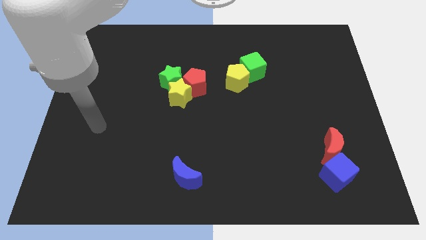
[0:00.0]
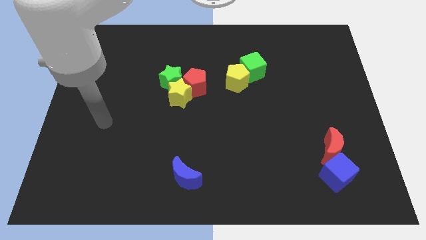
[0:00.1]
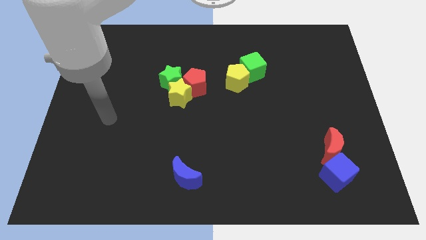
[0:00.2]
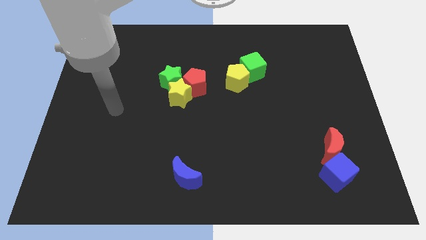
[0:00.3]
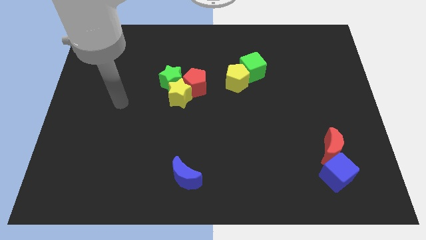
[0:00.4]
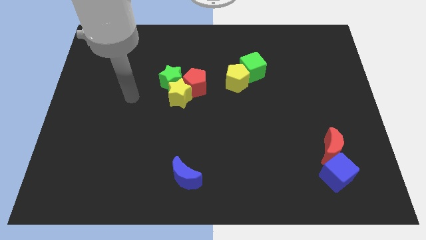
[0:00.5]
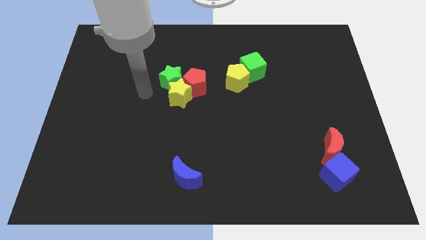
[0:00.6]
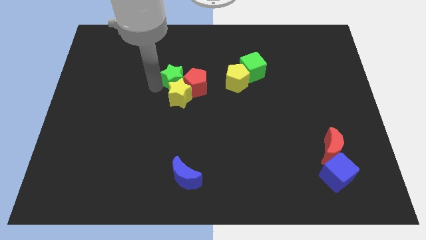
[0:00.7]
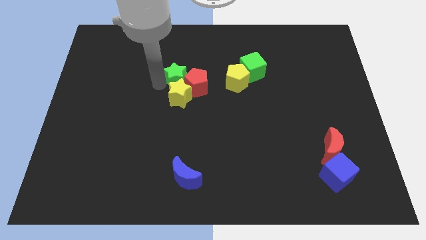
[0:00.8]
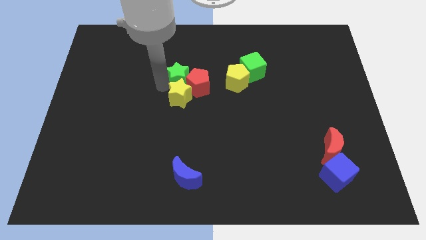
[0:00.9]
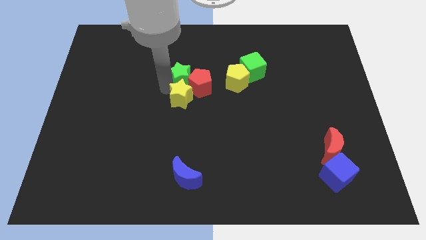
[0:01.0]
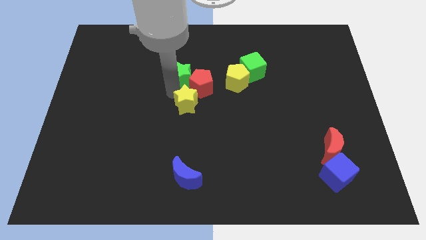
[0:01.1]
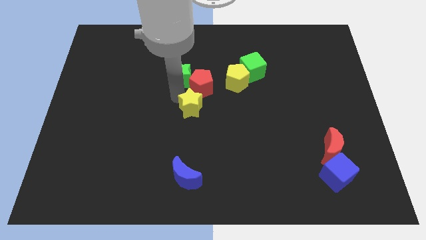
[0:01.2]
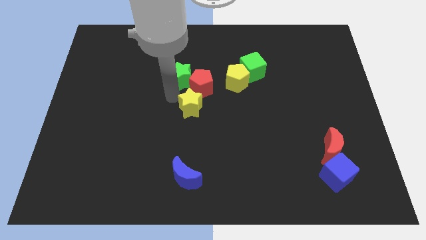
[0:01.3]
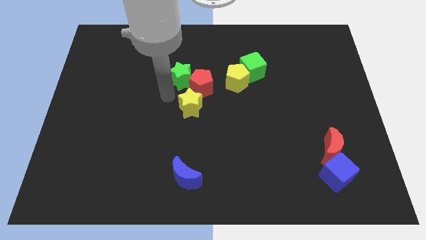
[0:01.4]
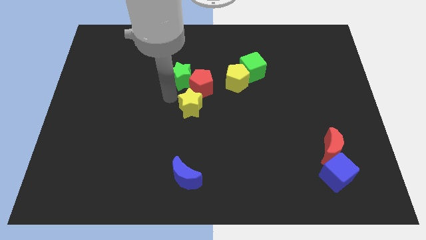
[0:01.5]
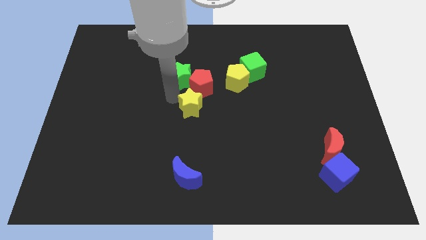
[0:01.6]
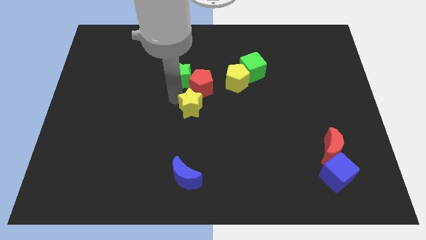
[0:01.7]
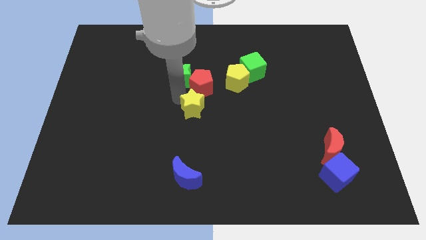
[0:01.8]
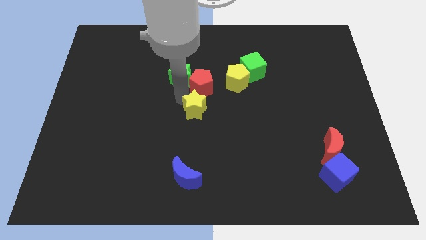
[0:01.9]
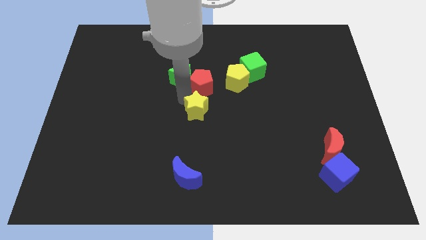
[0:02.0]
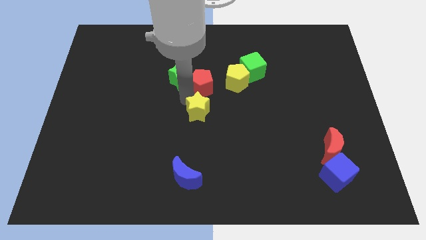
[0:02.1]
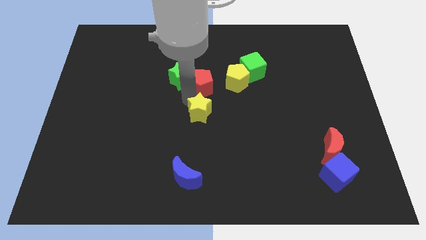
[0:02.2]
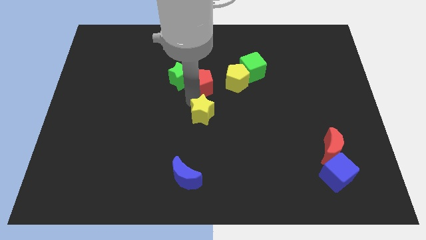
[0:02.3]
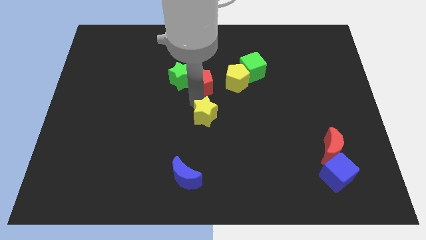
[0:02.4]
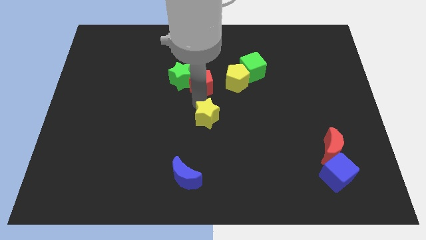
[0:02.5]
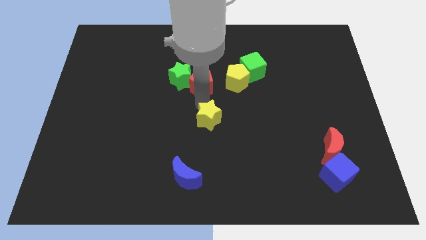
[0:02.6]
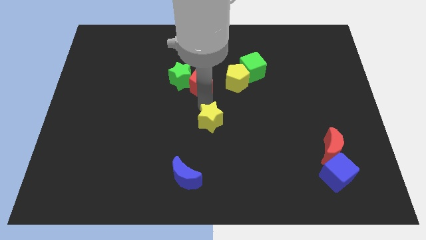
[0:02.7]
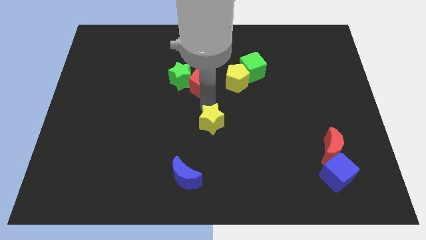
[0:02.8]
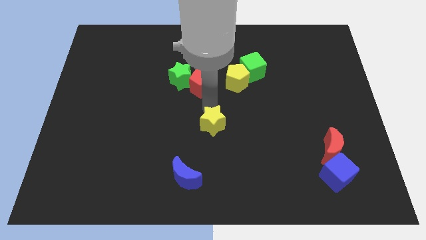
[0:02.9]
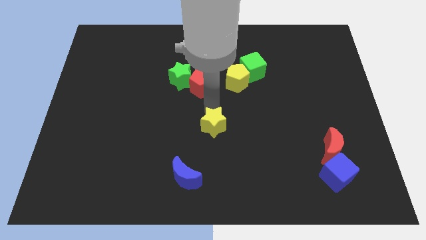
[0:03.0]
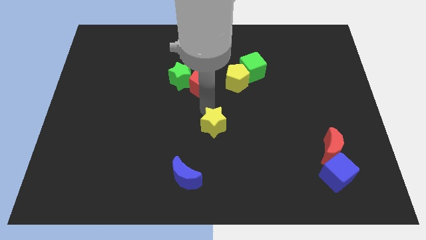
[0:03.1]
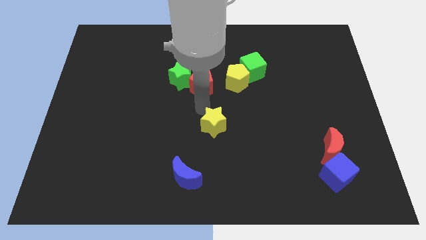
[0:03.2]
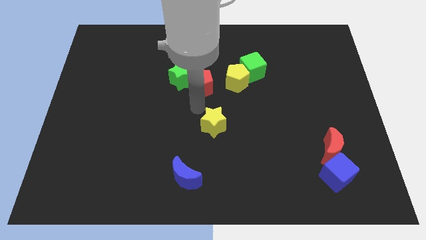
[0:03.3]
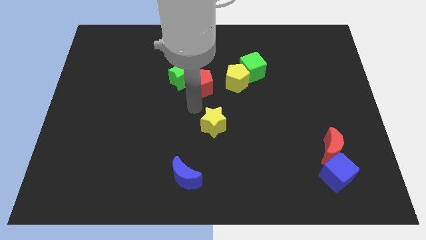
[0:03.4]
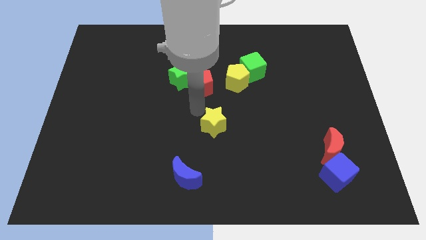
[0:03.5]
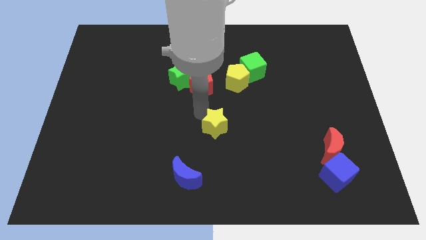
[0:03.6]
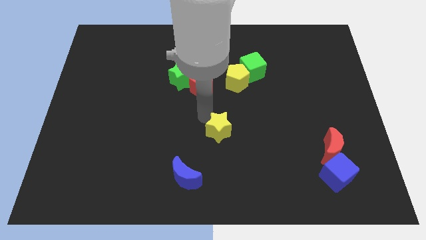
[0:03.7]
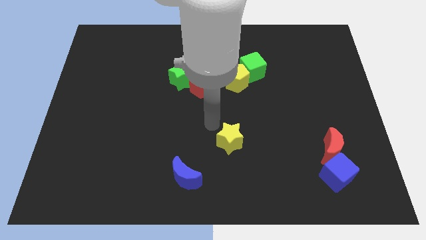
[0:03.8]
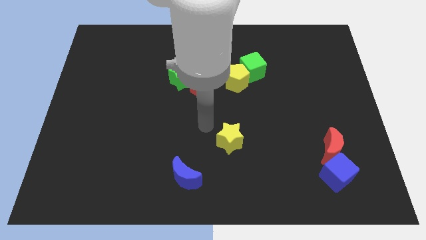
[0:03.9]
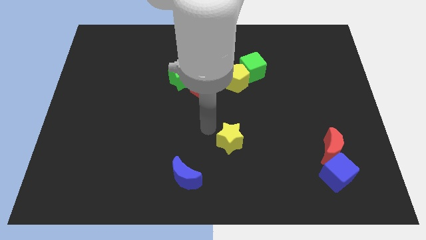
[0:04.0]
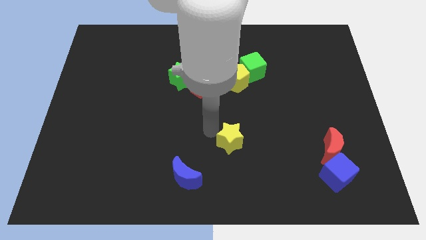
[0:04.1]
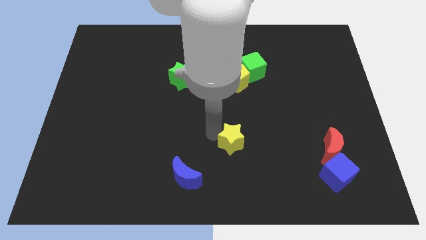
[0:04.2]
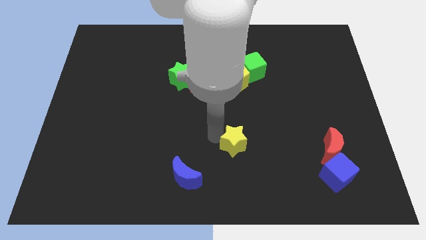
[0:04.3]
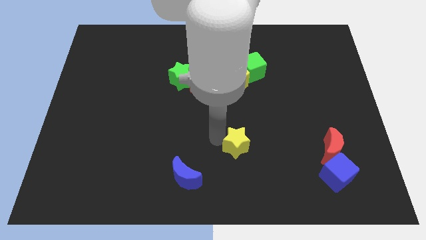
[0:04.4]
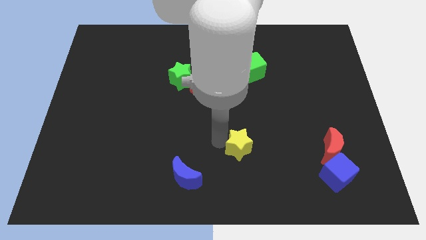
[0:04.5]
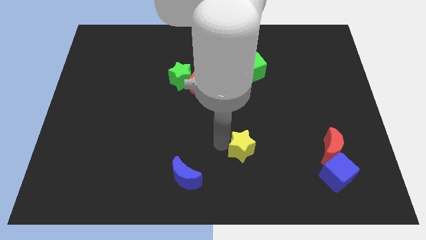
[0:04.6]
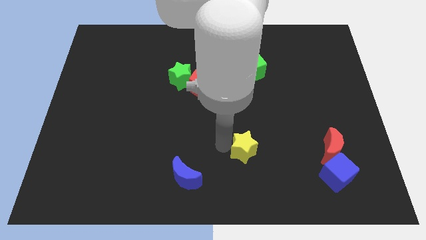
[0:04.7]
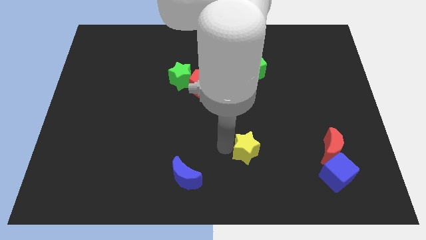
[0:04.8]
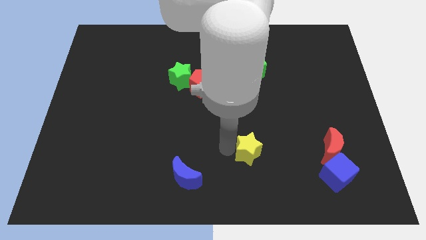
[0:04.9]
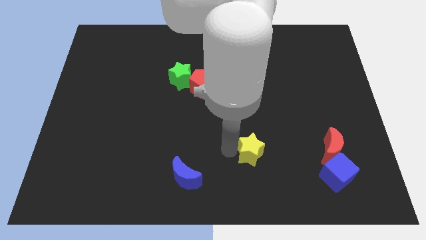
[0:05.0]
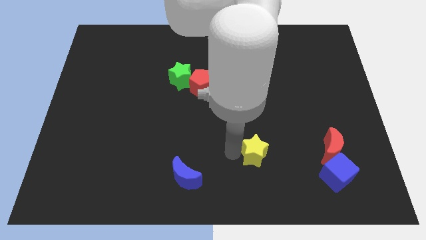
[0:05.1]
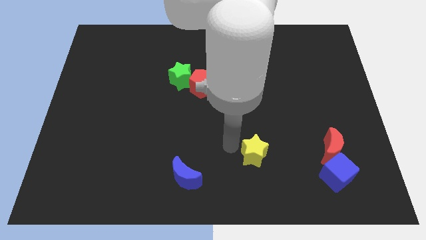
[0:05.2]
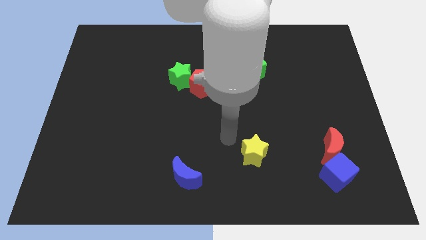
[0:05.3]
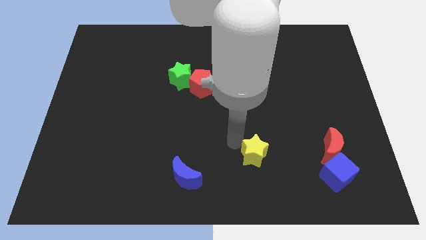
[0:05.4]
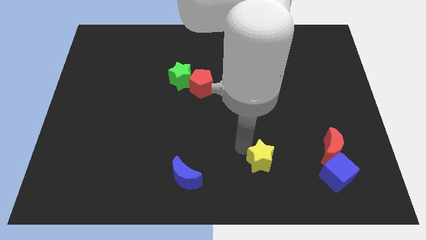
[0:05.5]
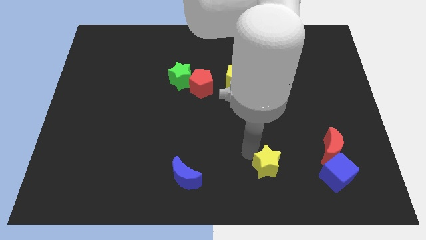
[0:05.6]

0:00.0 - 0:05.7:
put the yellow star to the left side of the blue cube

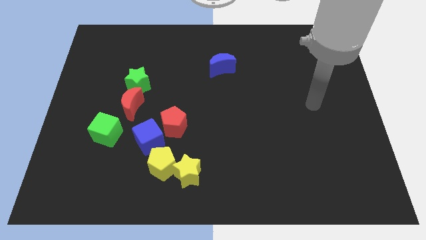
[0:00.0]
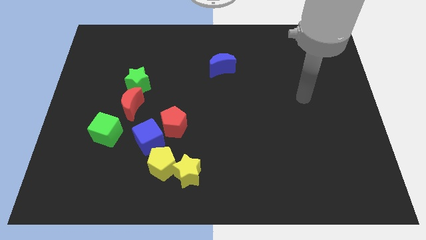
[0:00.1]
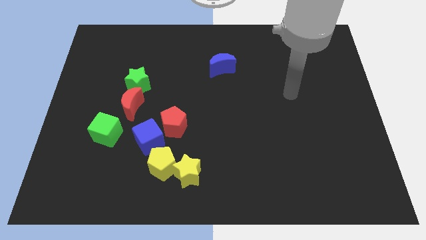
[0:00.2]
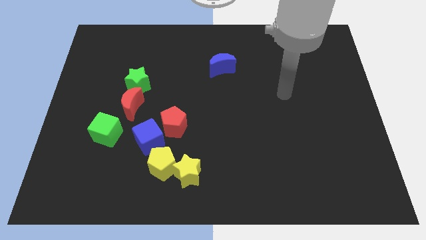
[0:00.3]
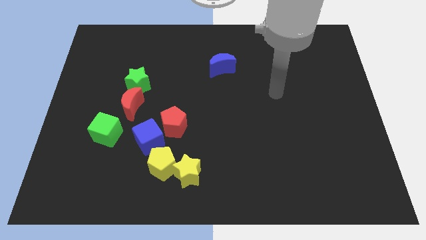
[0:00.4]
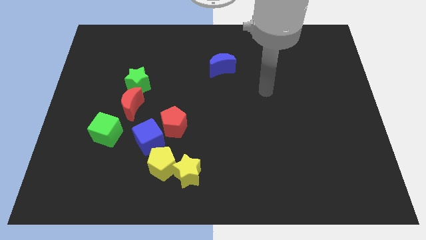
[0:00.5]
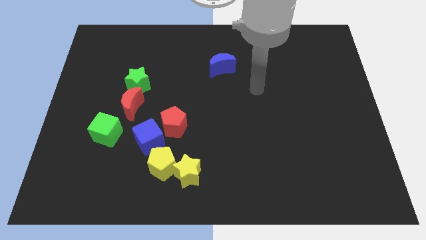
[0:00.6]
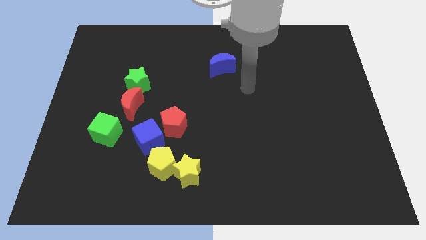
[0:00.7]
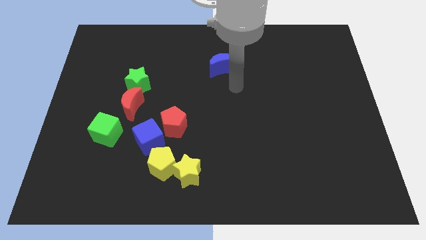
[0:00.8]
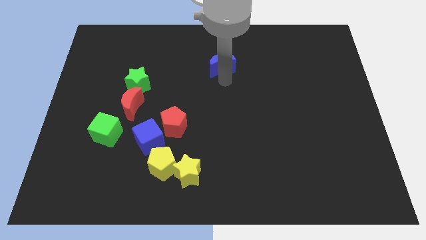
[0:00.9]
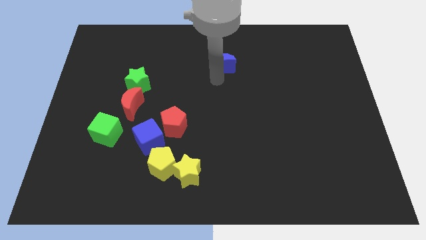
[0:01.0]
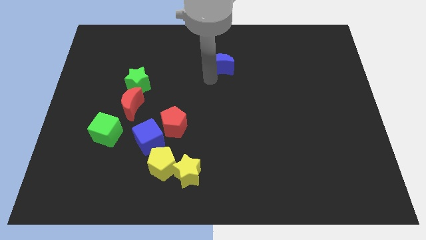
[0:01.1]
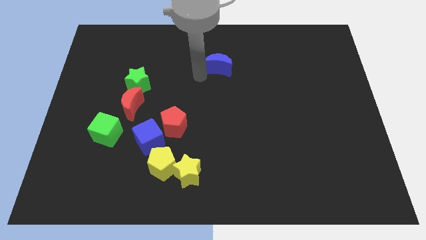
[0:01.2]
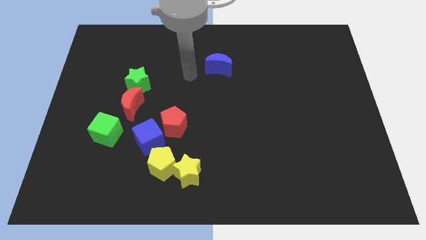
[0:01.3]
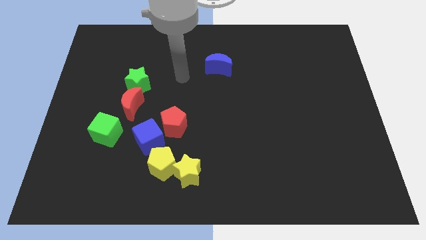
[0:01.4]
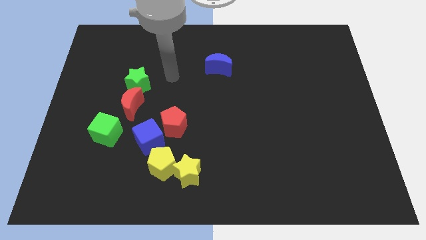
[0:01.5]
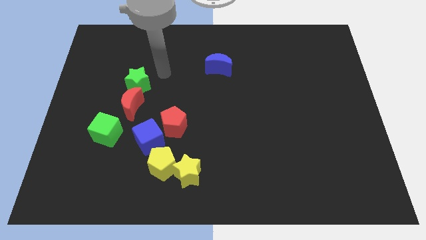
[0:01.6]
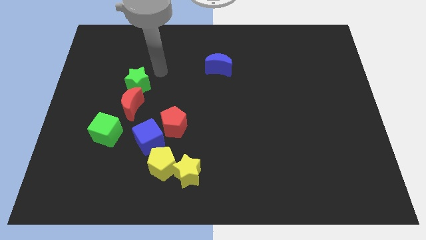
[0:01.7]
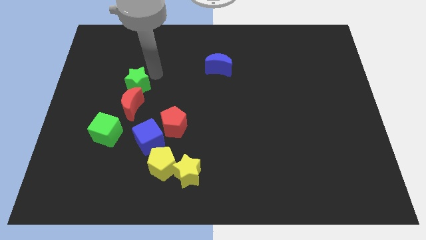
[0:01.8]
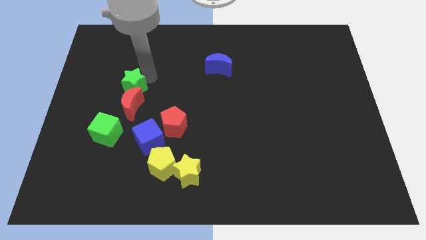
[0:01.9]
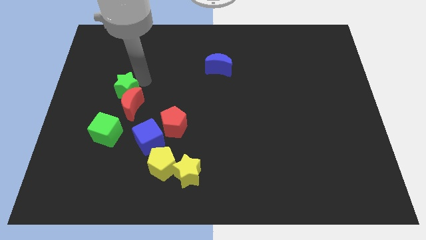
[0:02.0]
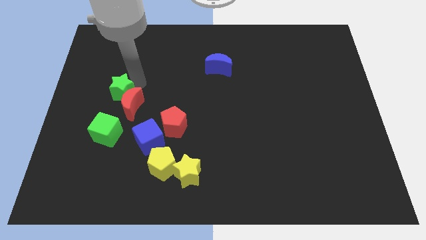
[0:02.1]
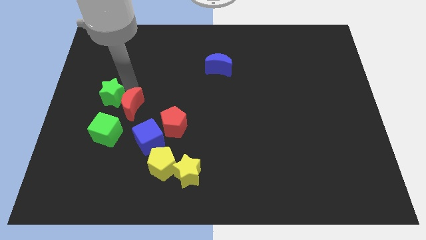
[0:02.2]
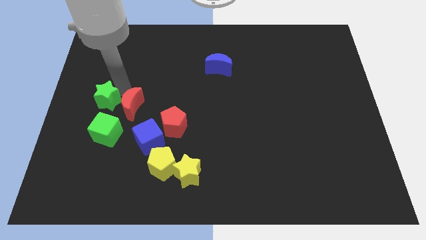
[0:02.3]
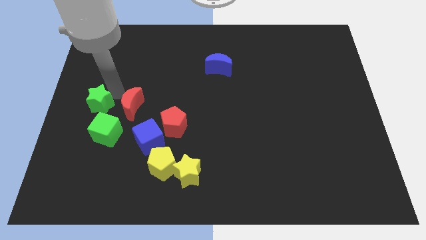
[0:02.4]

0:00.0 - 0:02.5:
push the green star diagonally up and to the left of the green cube
